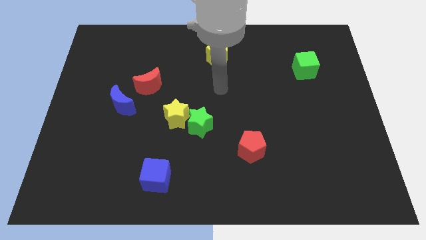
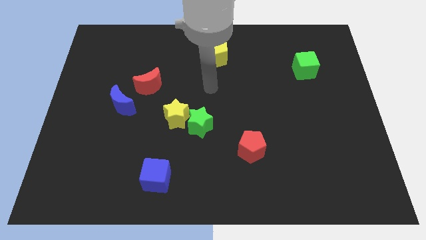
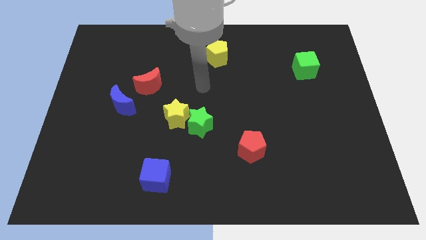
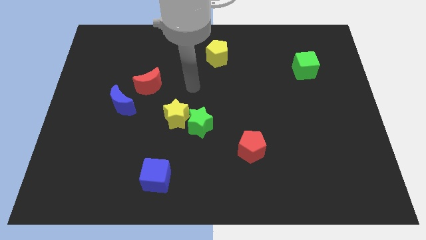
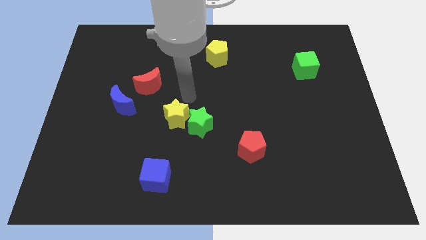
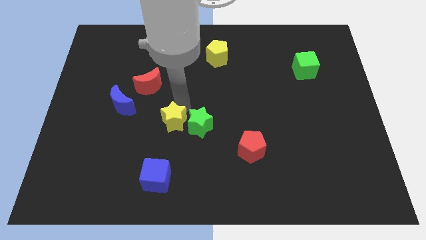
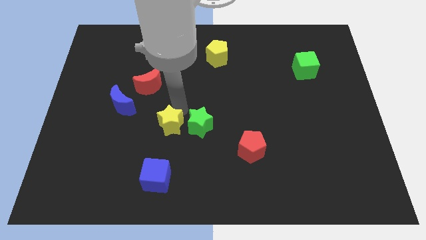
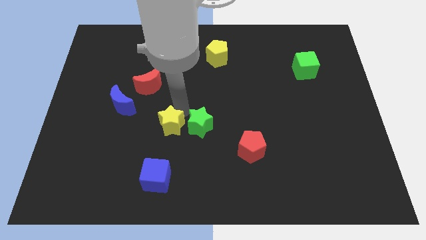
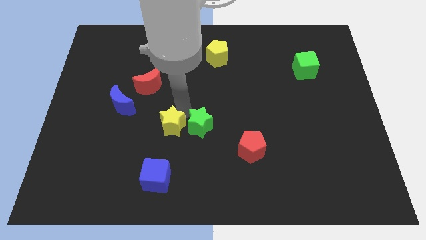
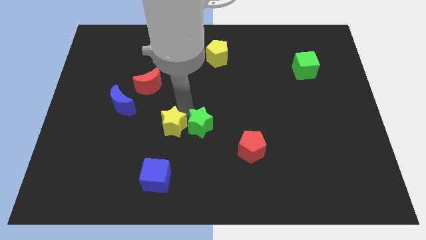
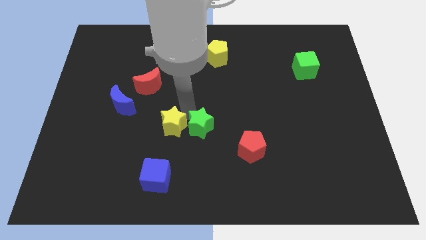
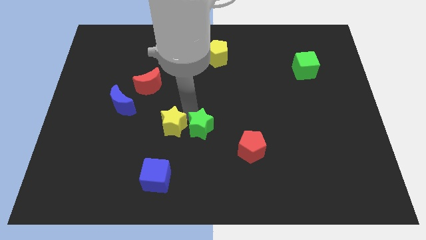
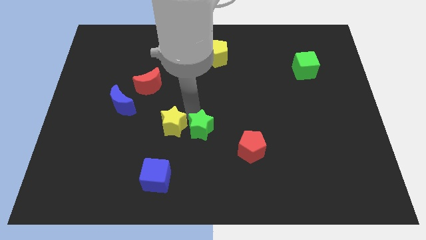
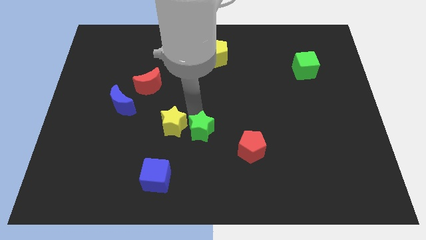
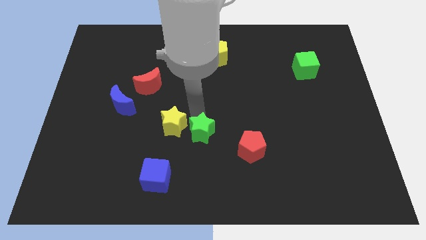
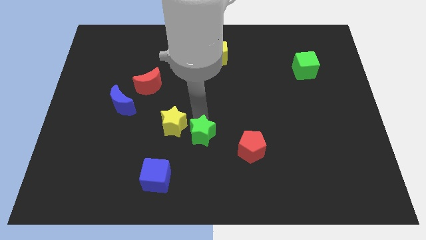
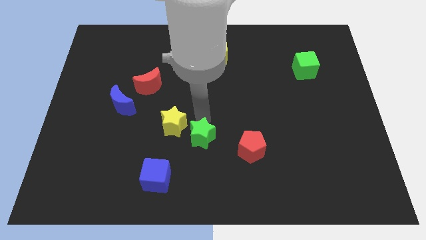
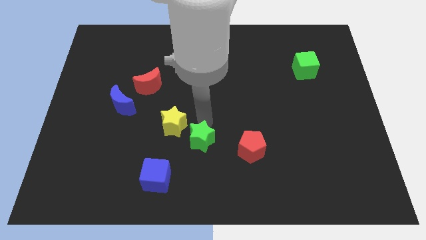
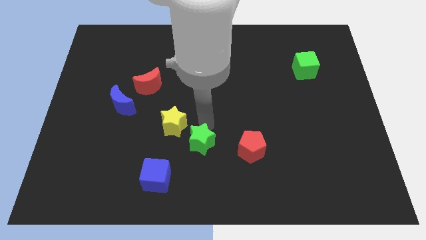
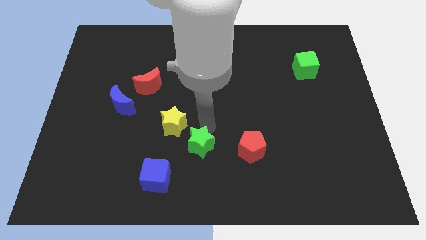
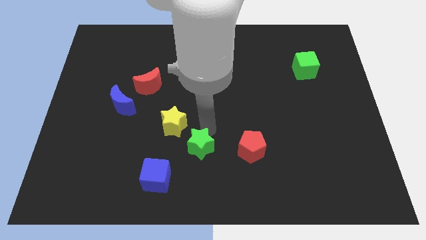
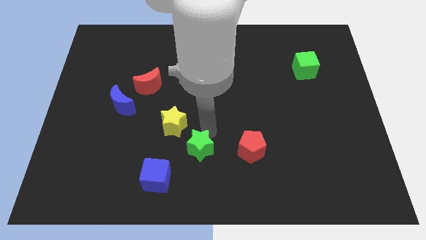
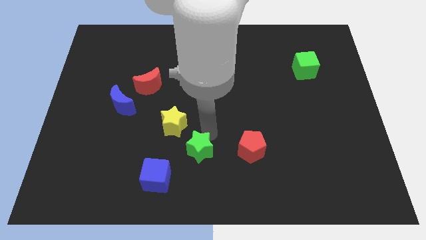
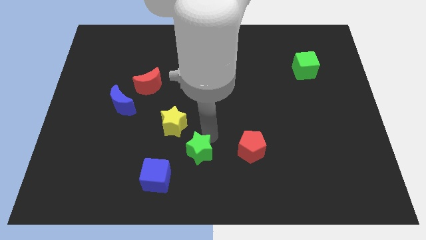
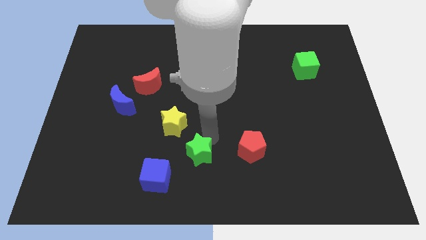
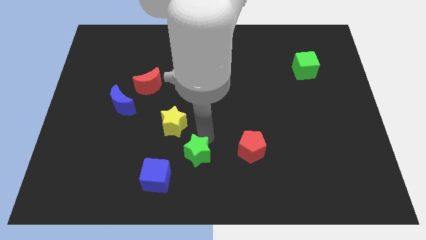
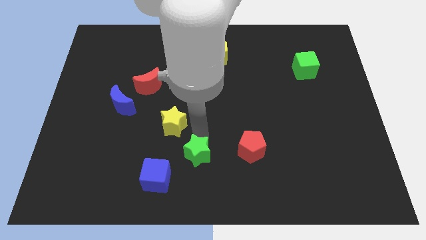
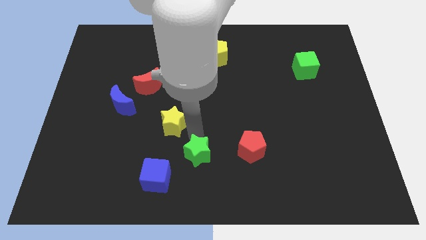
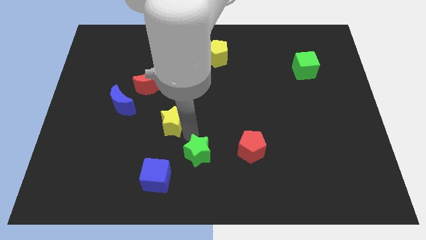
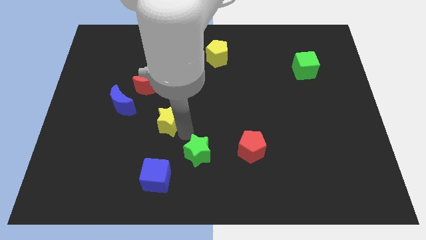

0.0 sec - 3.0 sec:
move the green star away from the yellow star

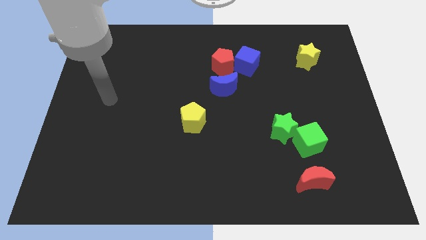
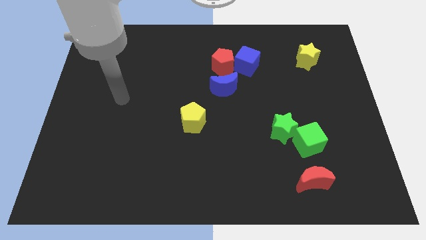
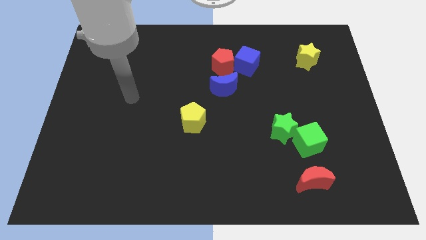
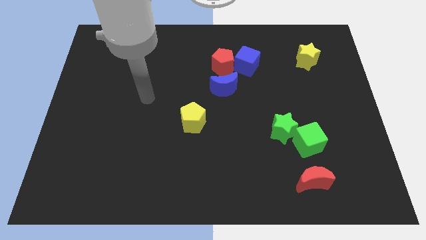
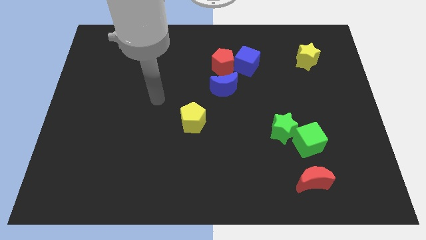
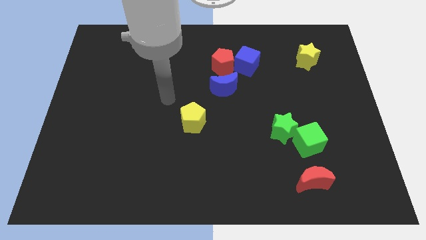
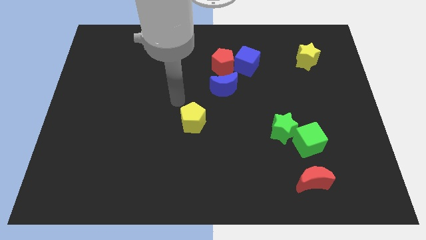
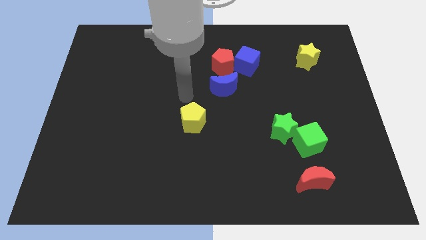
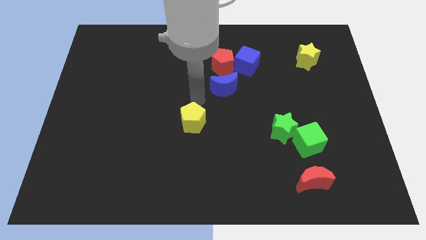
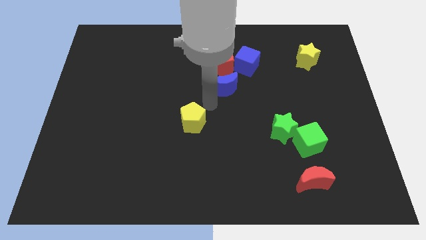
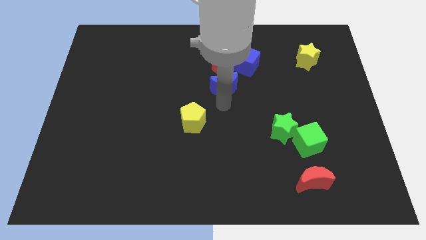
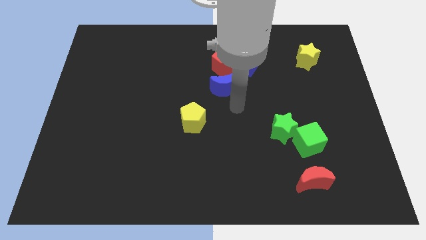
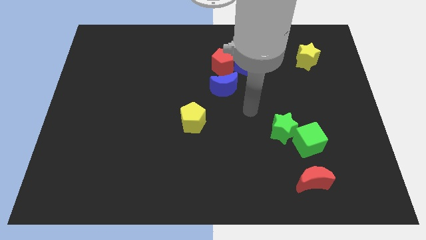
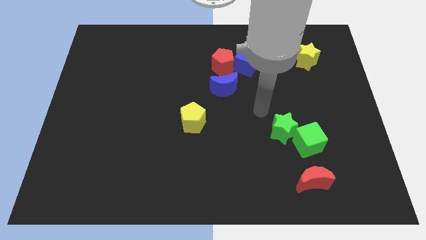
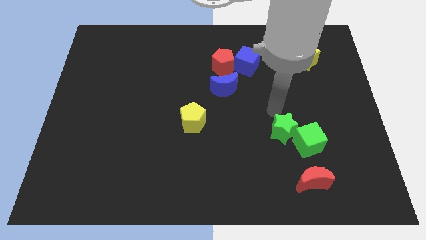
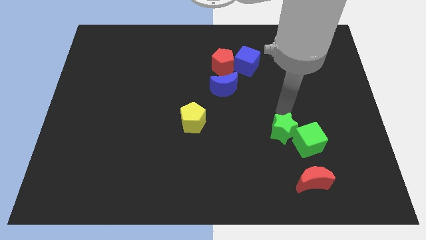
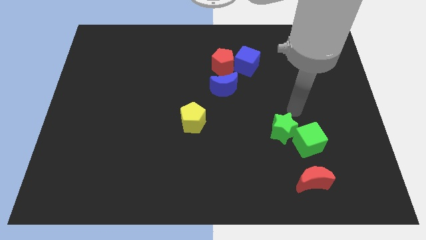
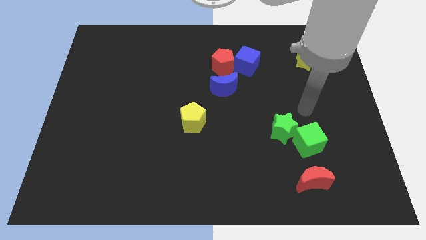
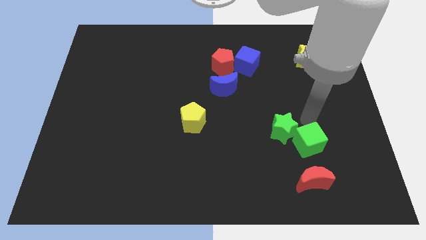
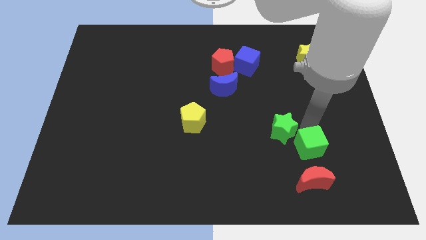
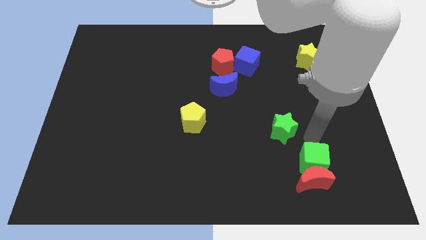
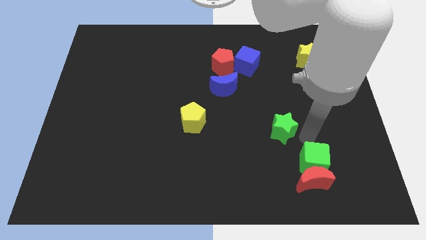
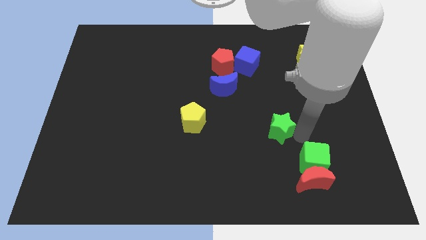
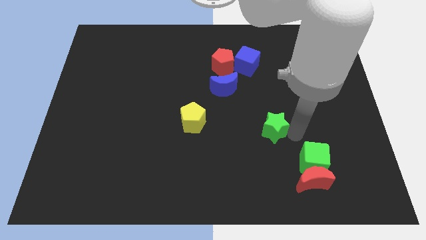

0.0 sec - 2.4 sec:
separate the green star from the green cube

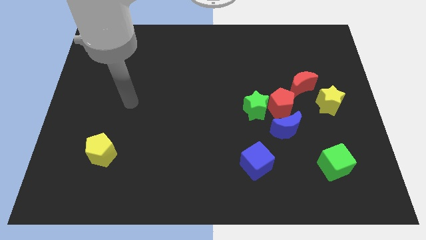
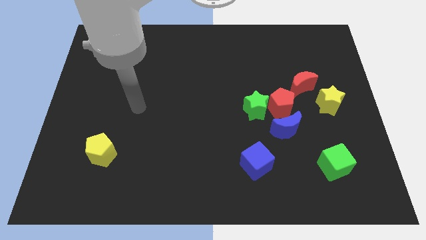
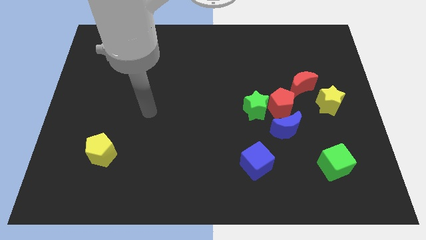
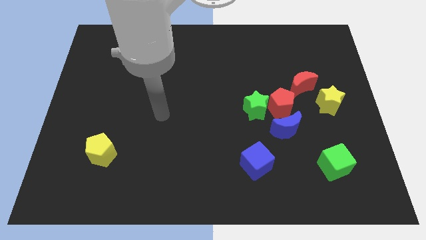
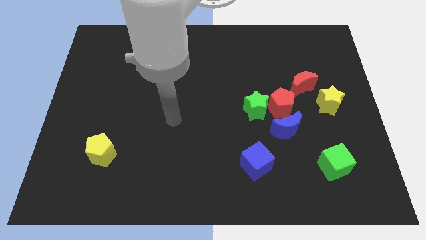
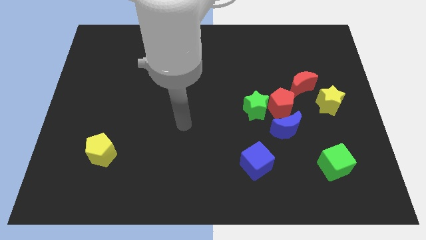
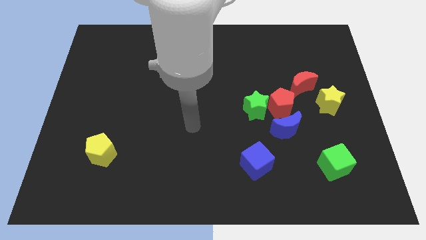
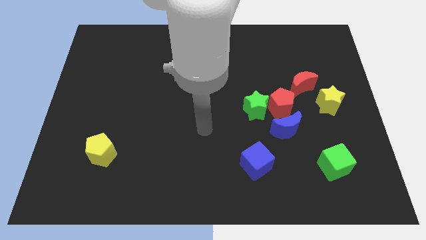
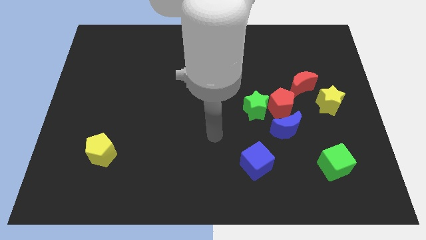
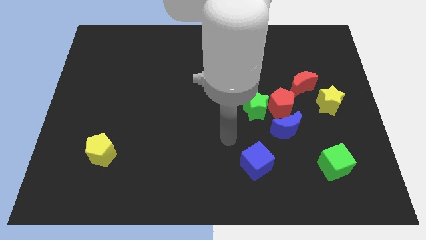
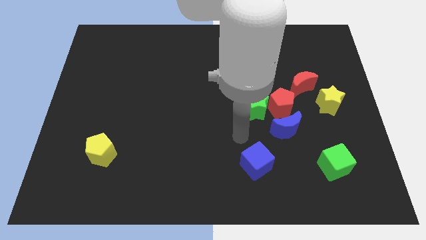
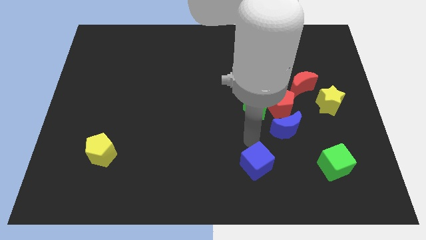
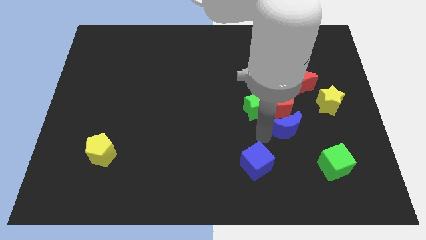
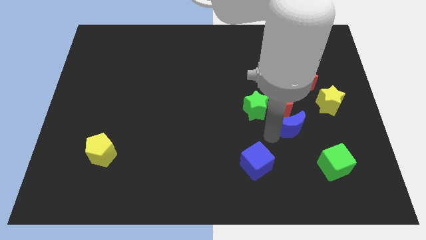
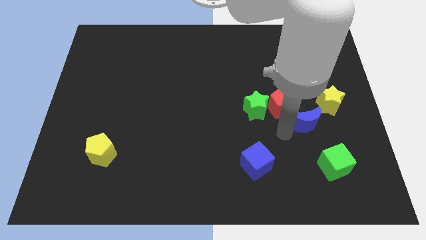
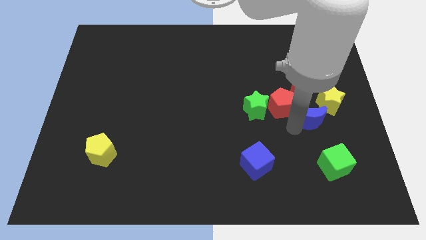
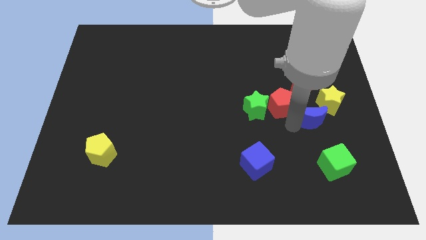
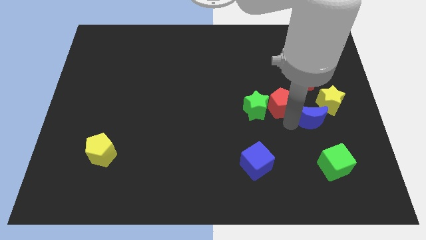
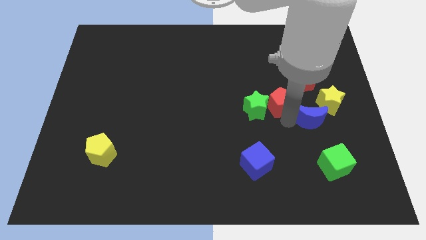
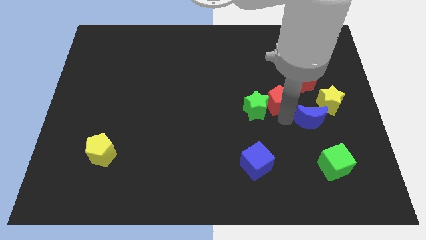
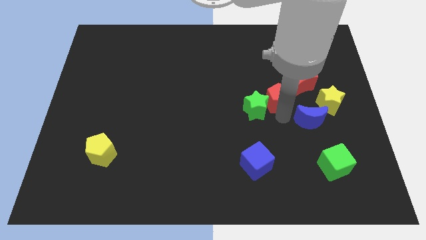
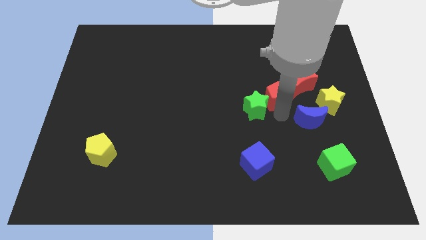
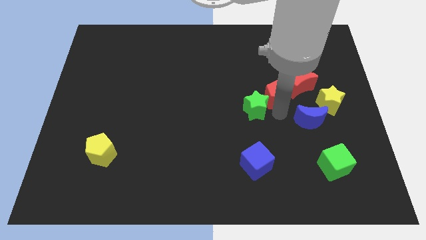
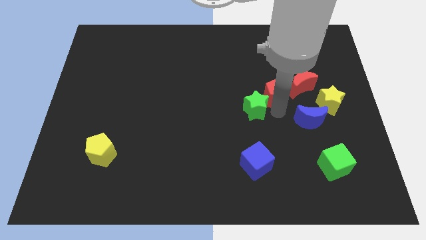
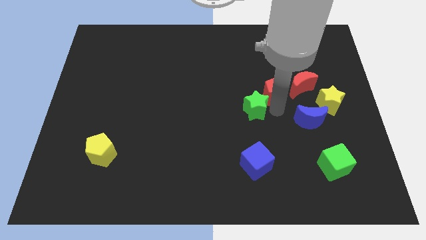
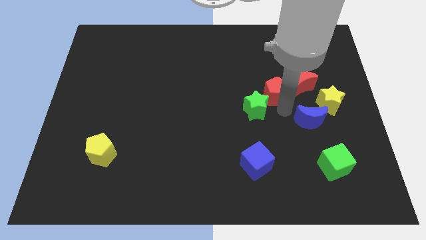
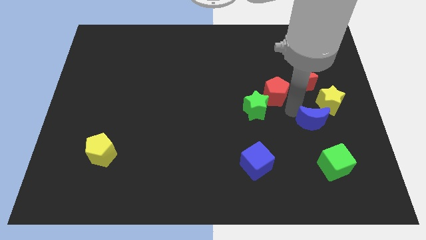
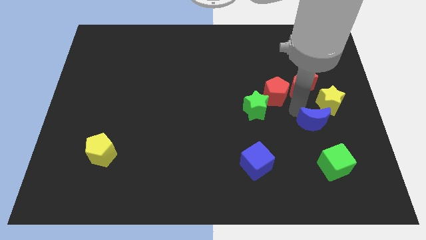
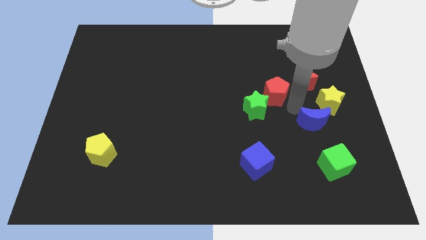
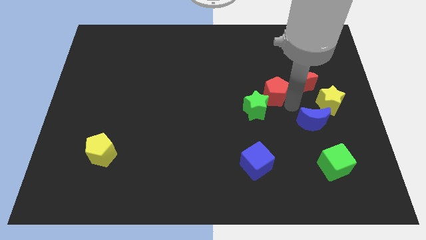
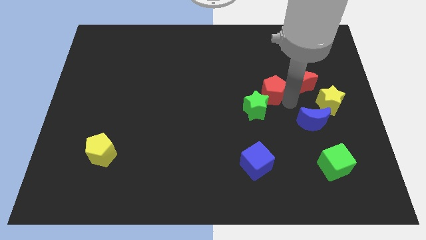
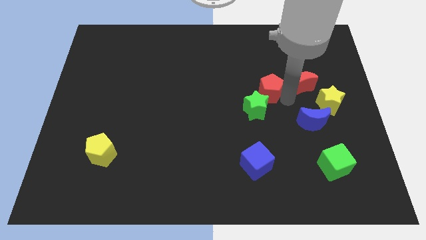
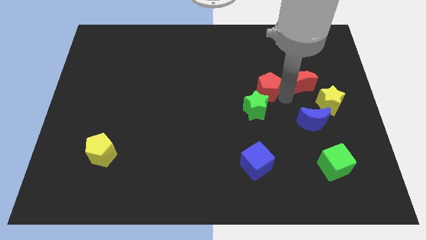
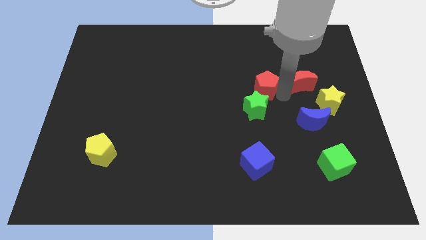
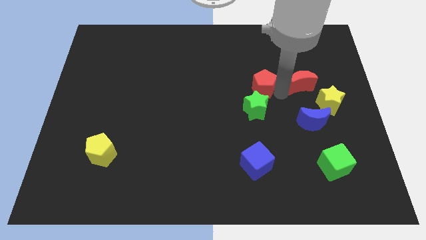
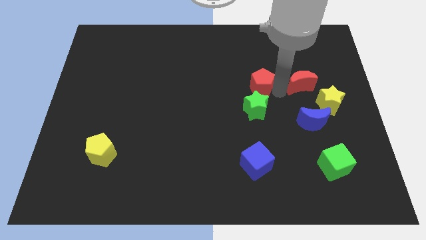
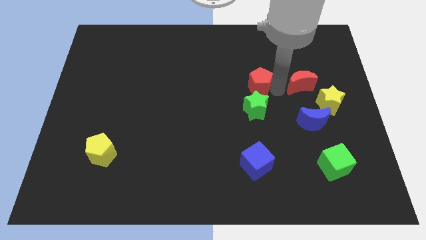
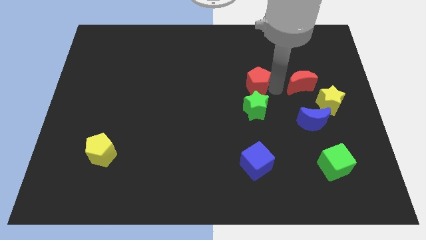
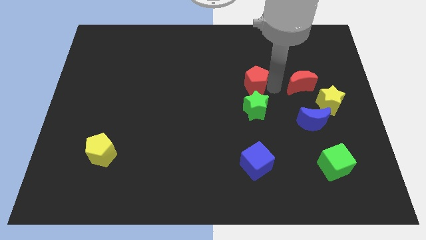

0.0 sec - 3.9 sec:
separate the red pentagon from the green star, blue moon, and red moon
